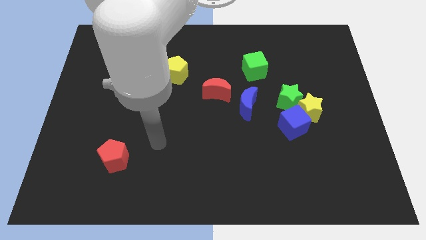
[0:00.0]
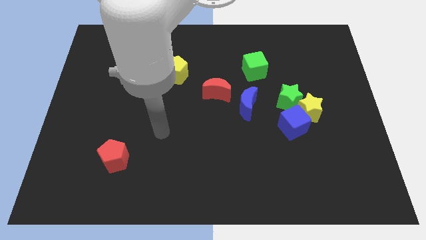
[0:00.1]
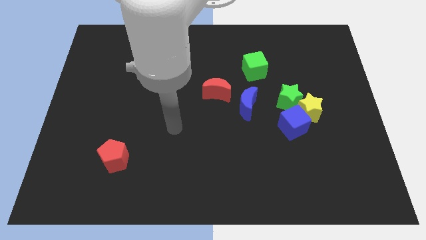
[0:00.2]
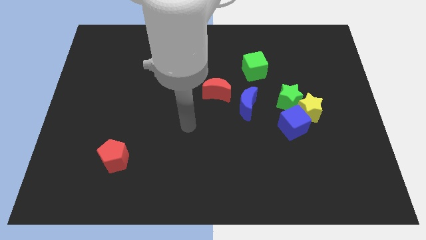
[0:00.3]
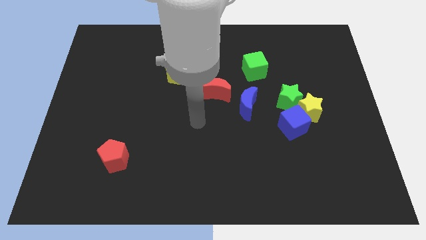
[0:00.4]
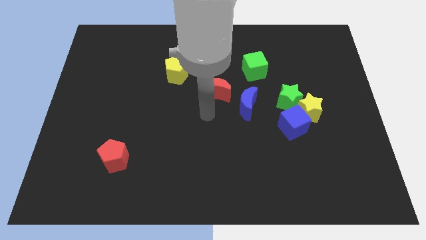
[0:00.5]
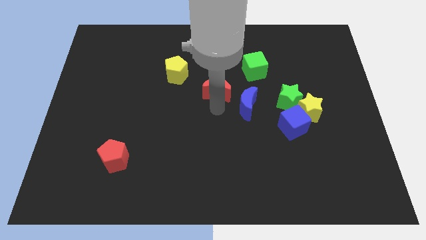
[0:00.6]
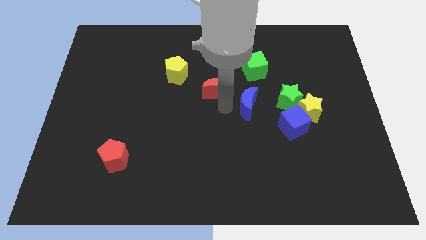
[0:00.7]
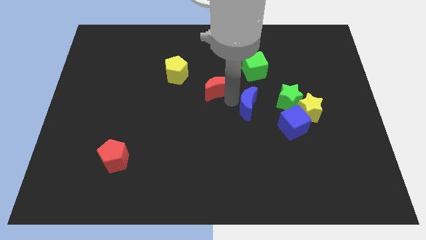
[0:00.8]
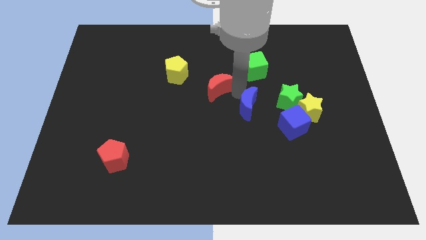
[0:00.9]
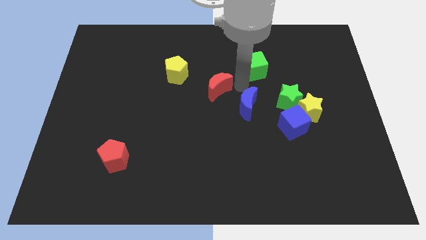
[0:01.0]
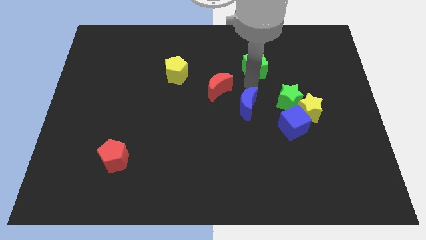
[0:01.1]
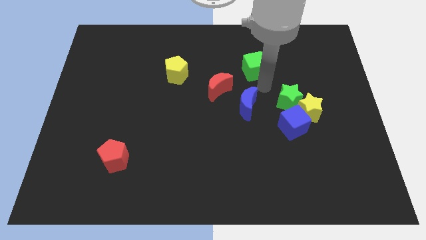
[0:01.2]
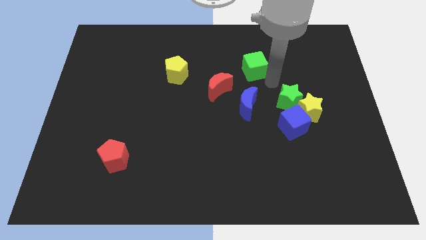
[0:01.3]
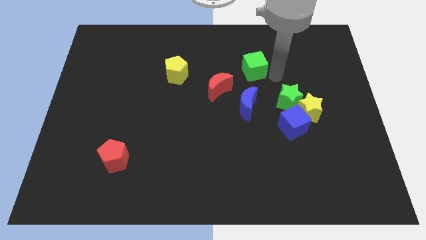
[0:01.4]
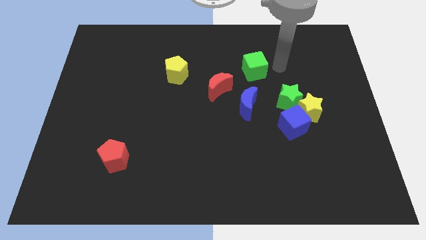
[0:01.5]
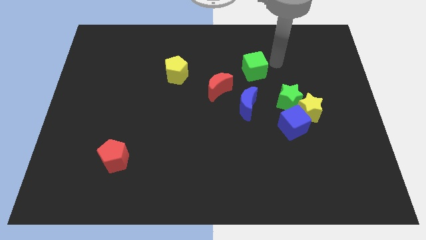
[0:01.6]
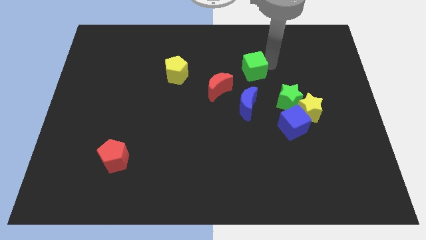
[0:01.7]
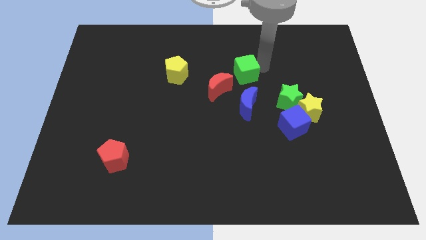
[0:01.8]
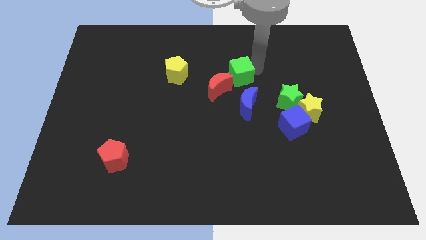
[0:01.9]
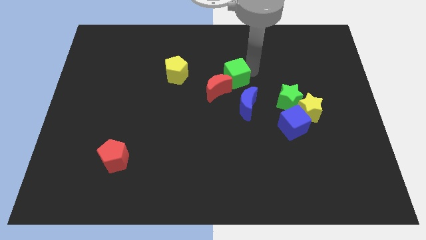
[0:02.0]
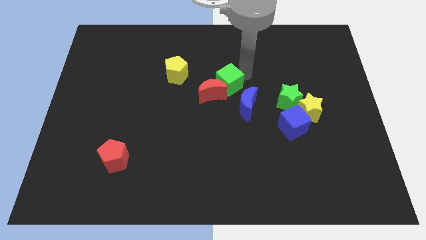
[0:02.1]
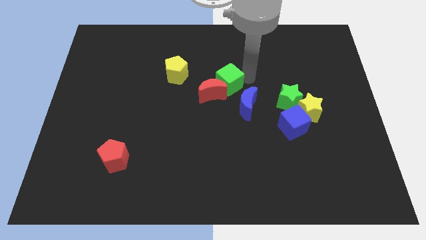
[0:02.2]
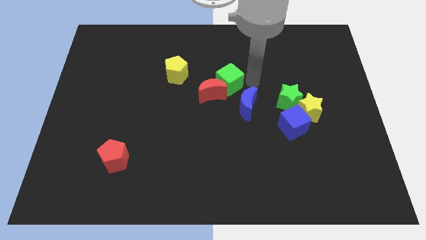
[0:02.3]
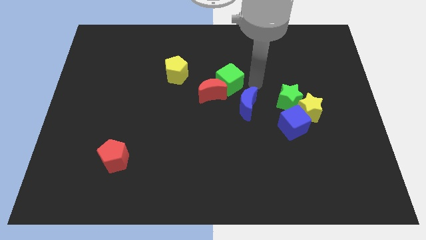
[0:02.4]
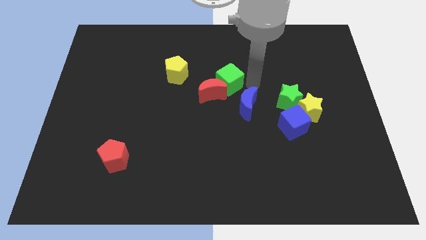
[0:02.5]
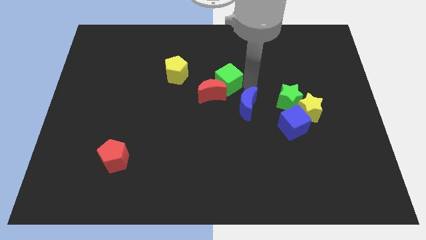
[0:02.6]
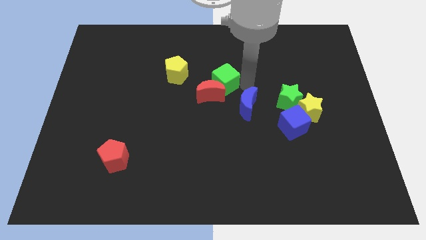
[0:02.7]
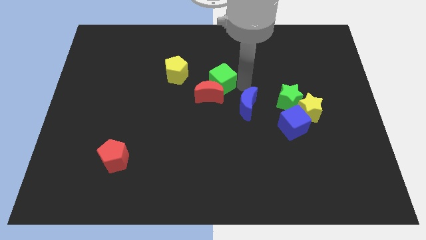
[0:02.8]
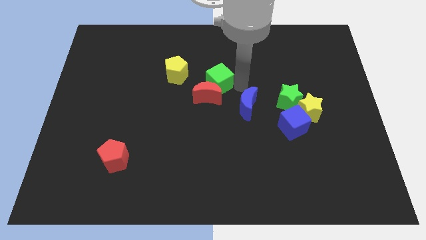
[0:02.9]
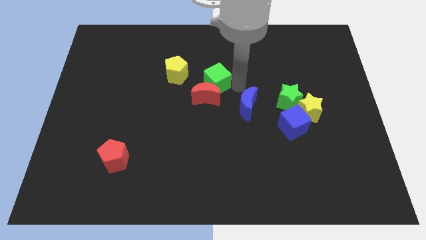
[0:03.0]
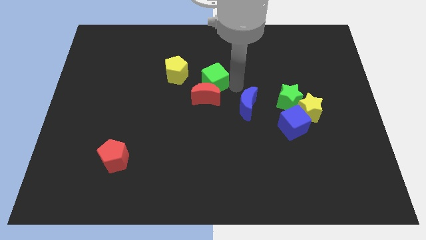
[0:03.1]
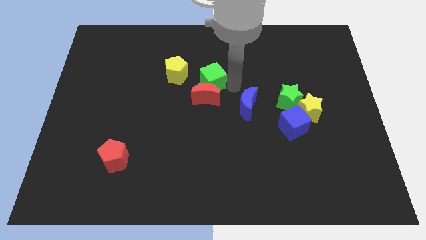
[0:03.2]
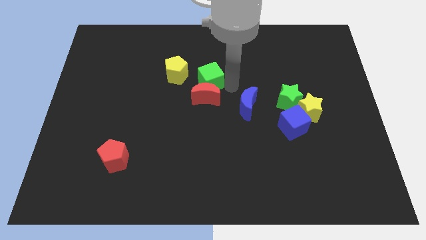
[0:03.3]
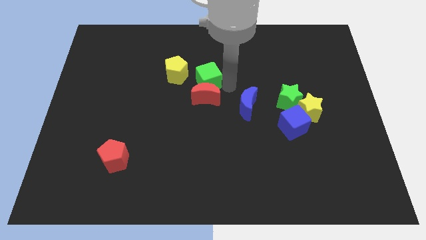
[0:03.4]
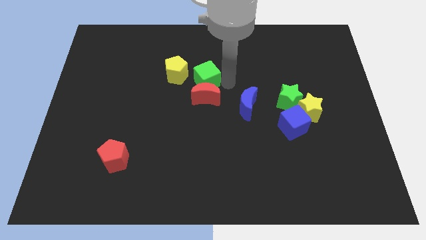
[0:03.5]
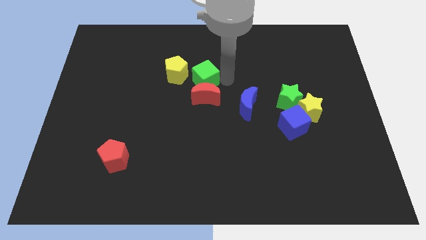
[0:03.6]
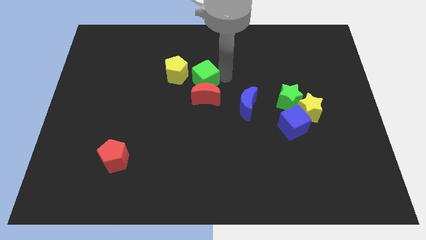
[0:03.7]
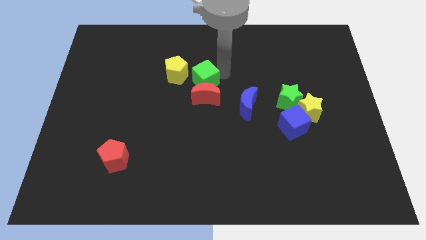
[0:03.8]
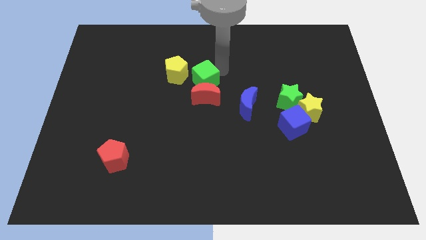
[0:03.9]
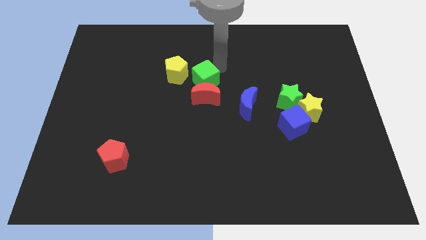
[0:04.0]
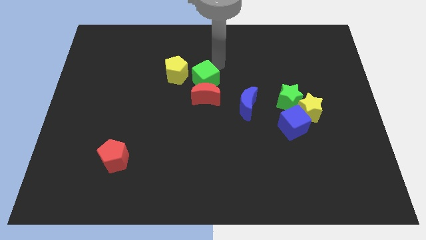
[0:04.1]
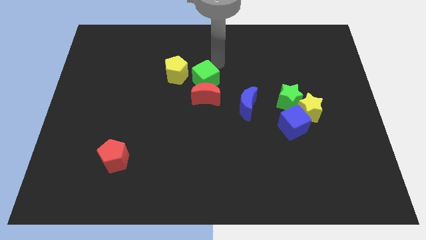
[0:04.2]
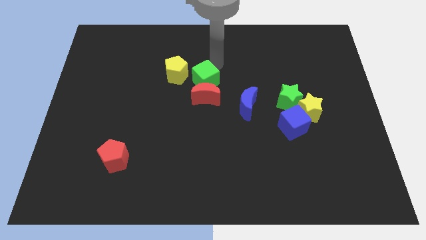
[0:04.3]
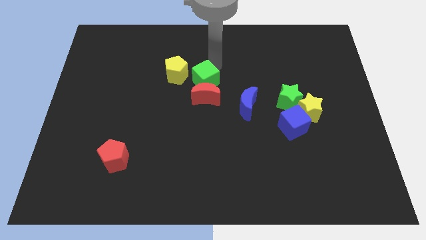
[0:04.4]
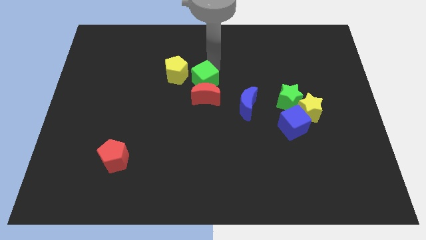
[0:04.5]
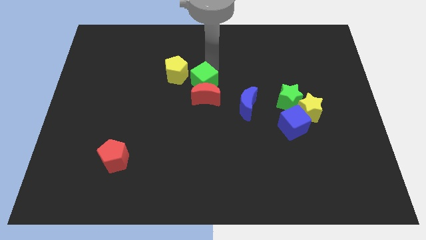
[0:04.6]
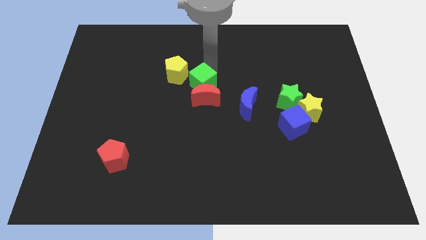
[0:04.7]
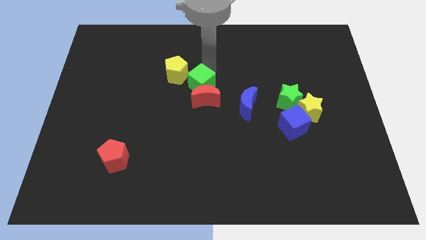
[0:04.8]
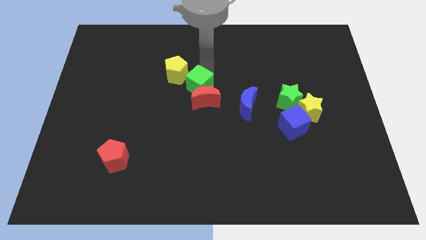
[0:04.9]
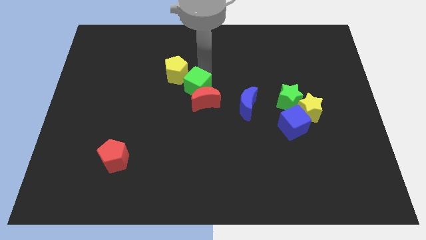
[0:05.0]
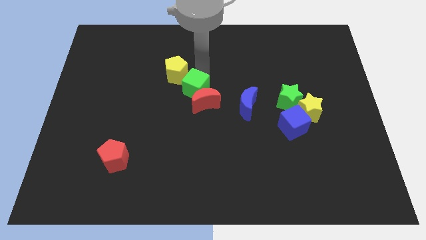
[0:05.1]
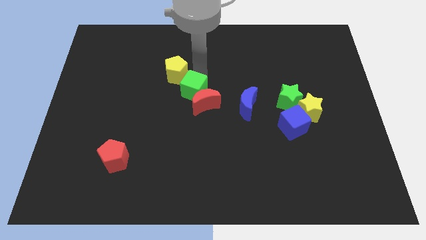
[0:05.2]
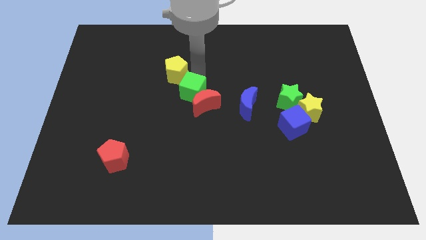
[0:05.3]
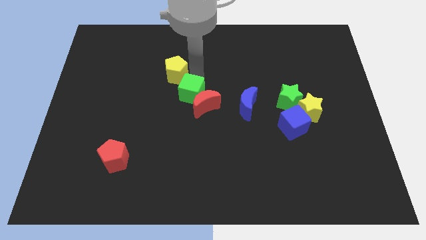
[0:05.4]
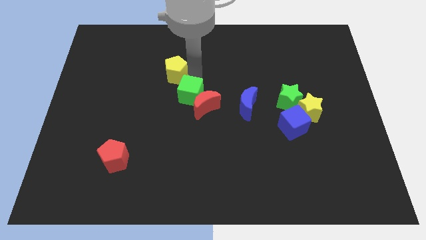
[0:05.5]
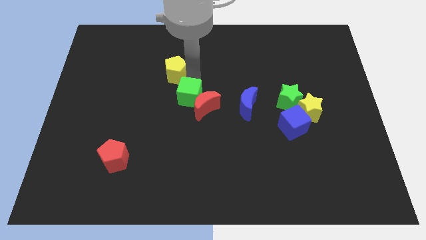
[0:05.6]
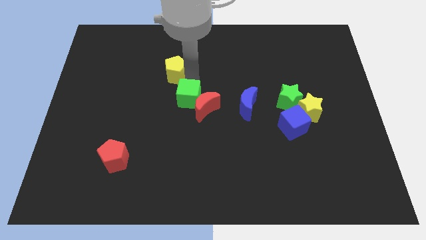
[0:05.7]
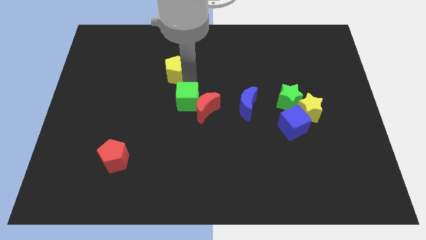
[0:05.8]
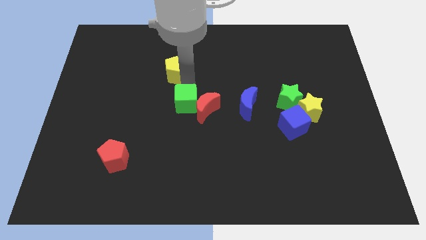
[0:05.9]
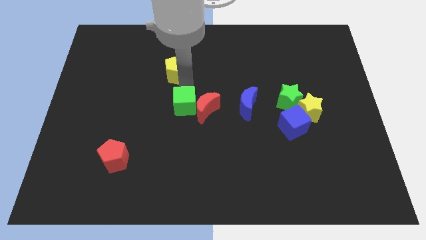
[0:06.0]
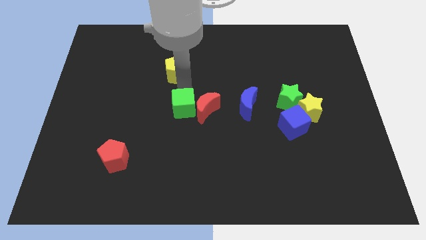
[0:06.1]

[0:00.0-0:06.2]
slide the green cube downwards and then to the left

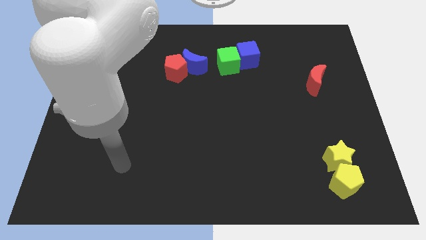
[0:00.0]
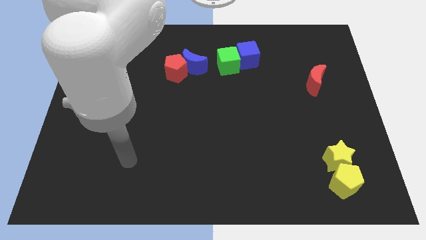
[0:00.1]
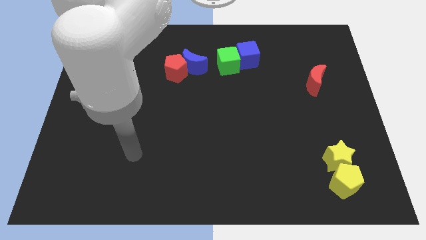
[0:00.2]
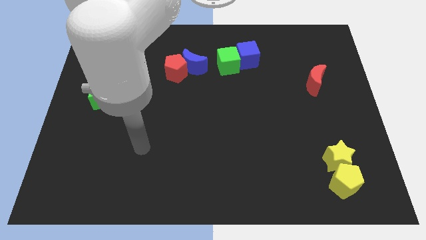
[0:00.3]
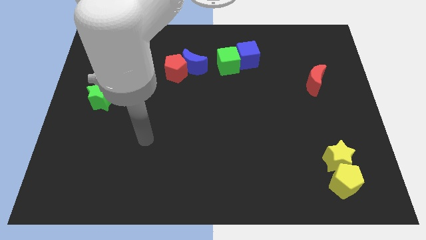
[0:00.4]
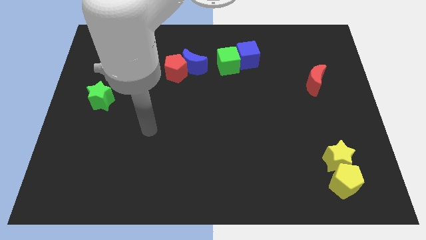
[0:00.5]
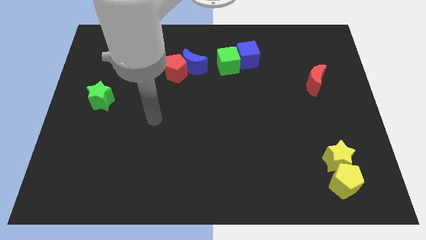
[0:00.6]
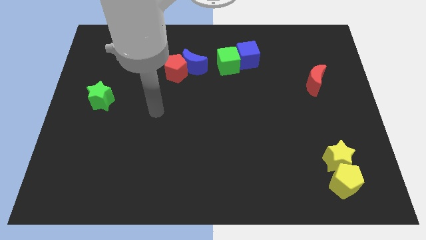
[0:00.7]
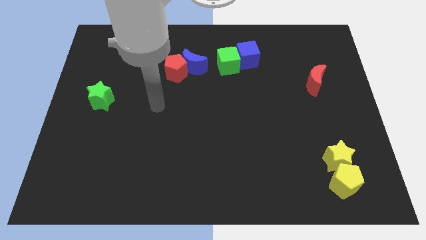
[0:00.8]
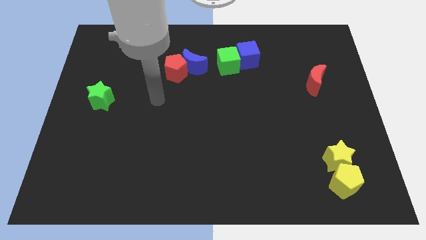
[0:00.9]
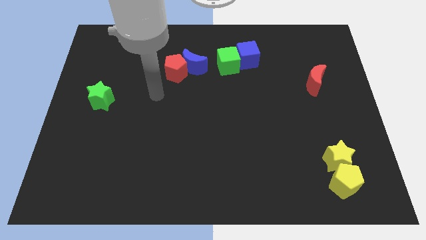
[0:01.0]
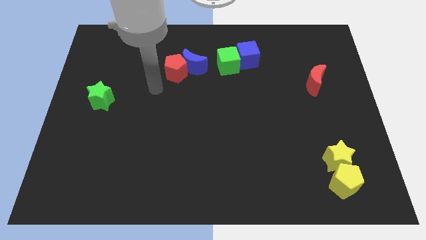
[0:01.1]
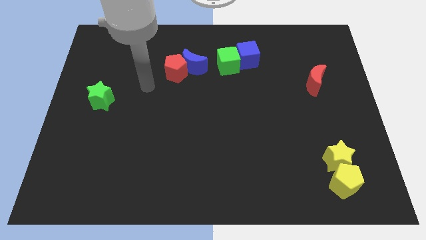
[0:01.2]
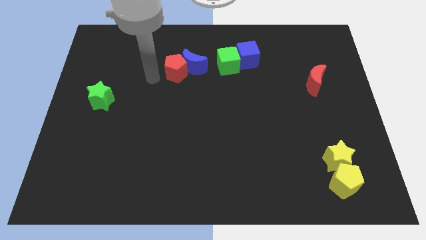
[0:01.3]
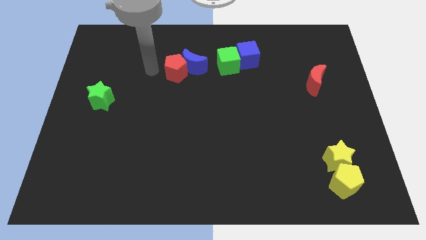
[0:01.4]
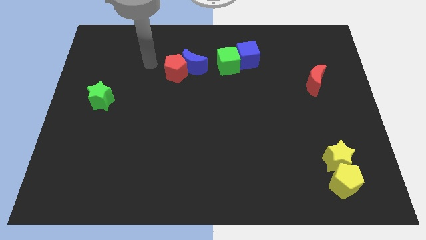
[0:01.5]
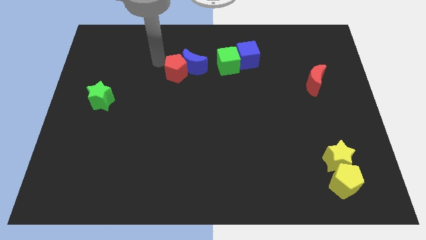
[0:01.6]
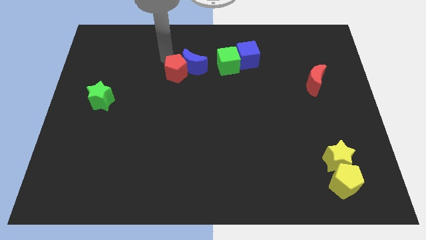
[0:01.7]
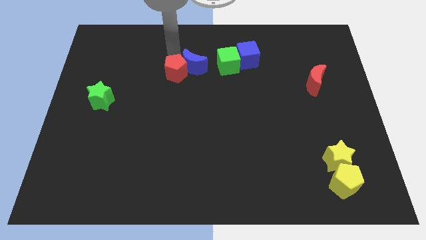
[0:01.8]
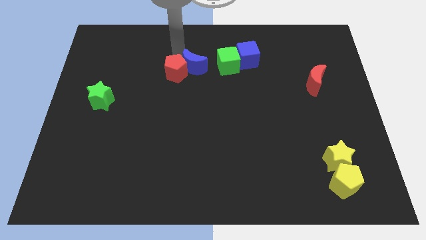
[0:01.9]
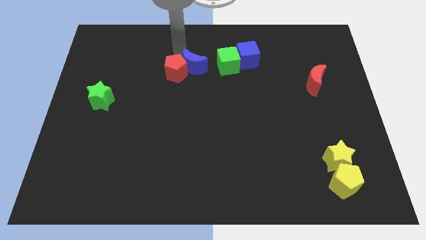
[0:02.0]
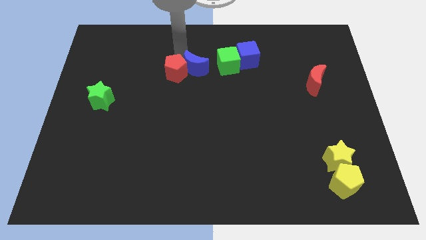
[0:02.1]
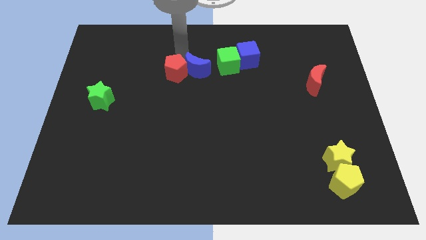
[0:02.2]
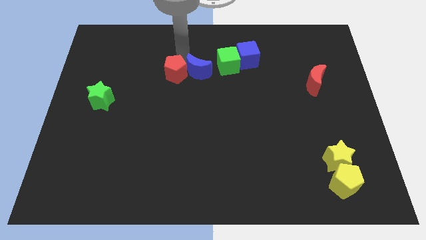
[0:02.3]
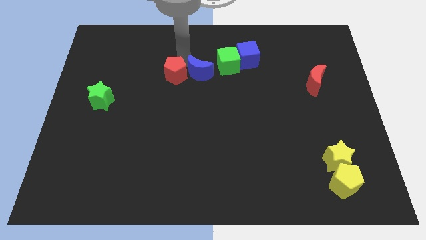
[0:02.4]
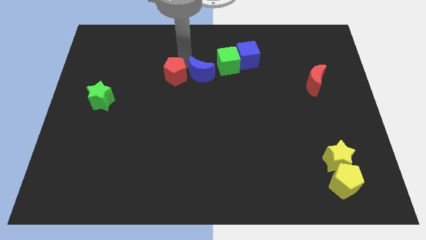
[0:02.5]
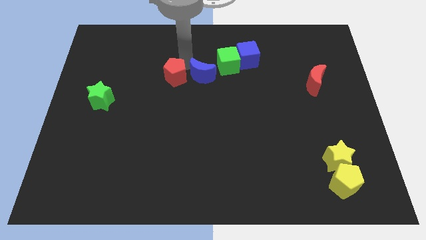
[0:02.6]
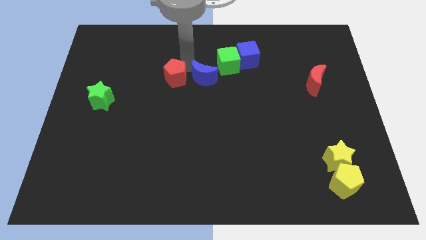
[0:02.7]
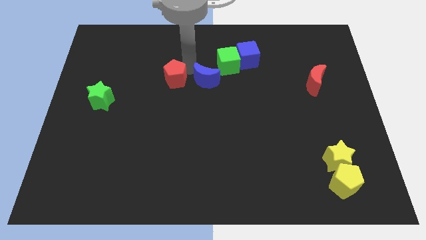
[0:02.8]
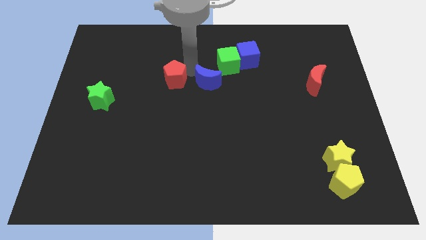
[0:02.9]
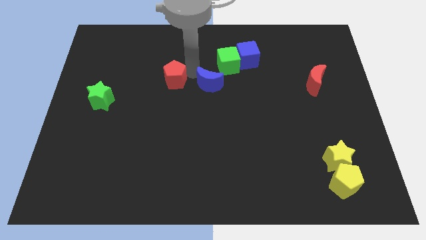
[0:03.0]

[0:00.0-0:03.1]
slide the blue moon somewhat down and right diagonally
